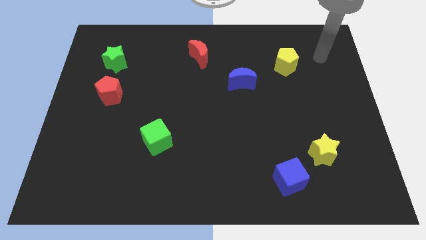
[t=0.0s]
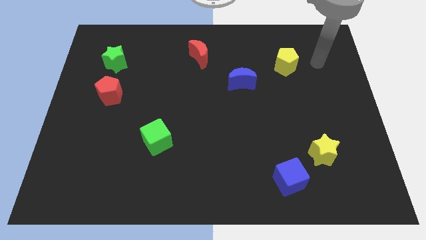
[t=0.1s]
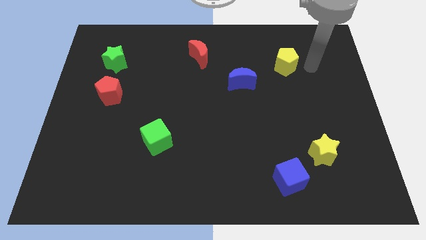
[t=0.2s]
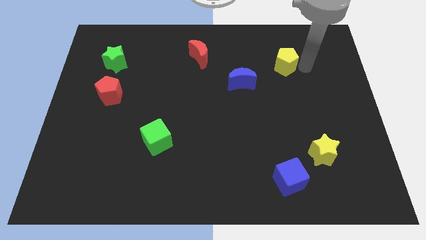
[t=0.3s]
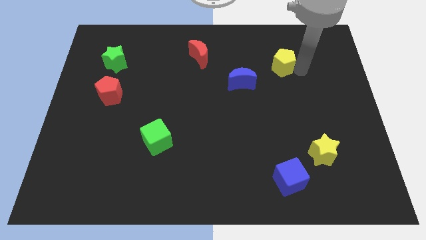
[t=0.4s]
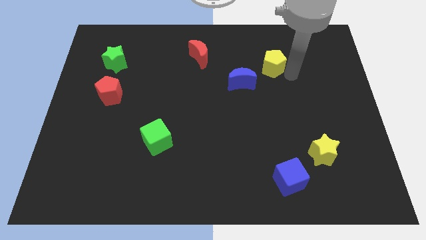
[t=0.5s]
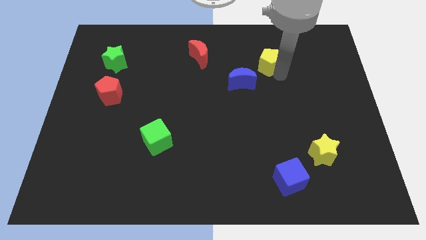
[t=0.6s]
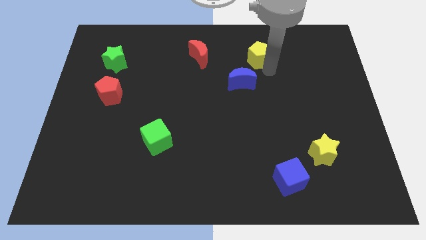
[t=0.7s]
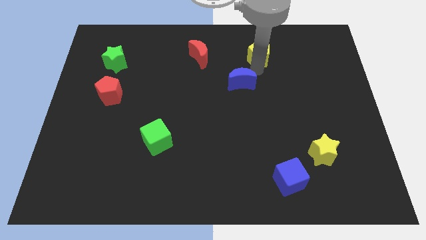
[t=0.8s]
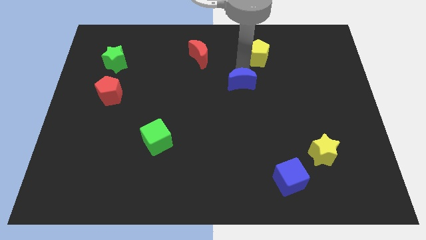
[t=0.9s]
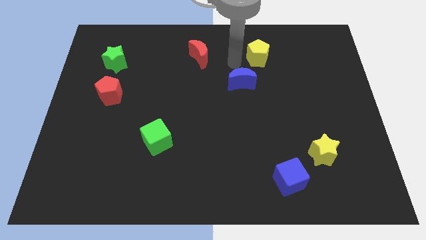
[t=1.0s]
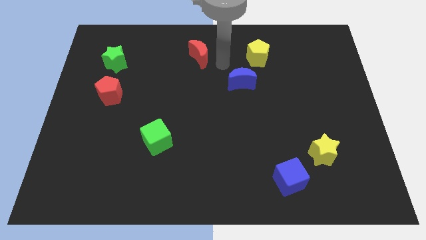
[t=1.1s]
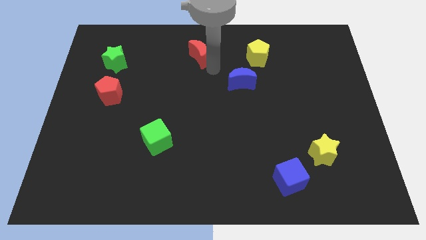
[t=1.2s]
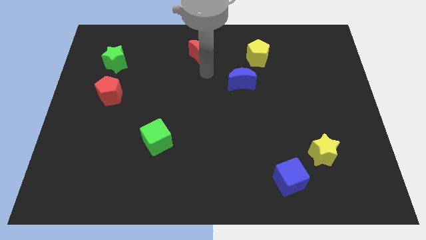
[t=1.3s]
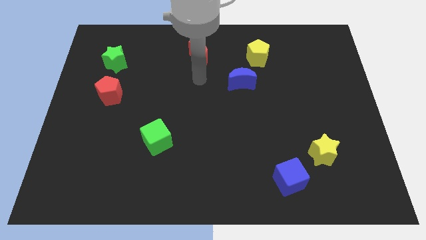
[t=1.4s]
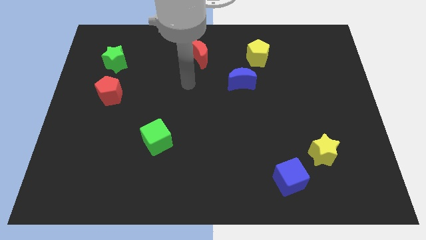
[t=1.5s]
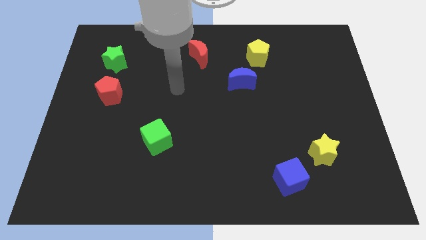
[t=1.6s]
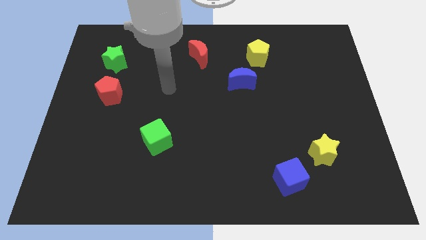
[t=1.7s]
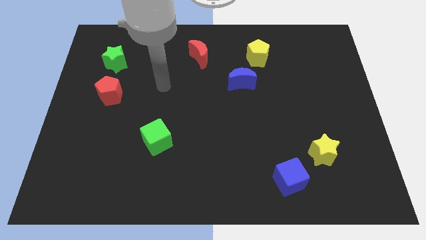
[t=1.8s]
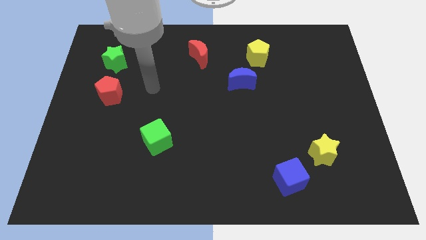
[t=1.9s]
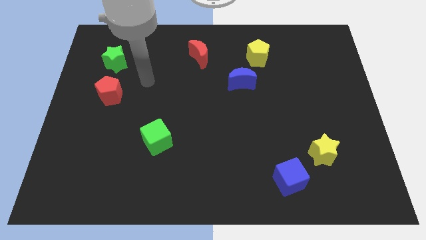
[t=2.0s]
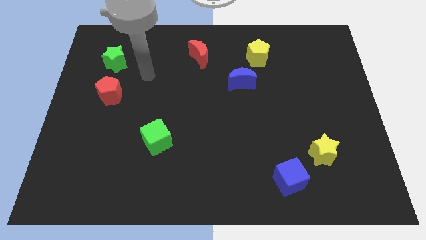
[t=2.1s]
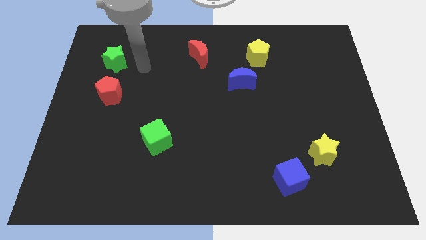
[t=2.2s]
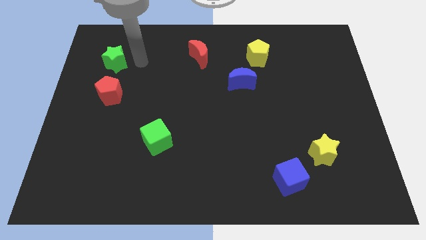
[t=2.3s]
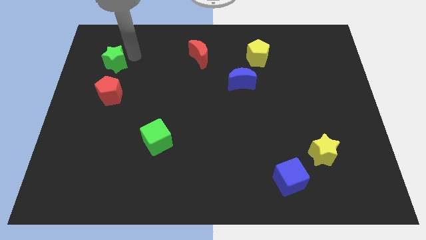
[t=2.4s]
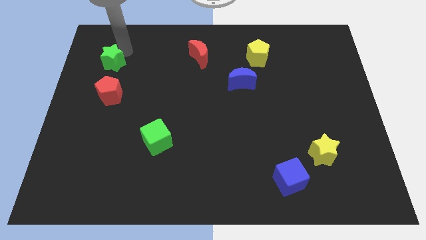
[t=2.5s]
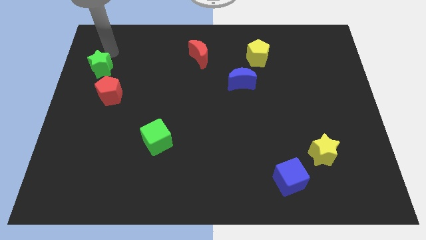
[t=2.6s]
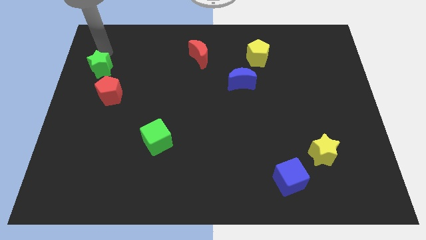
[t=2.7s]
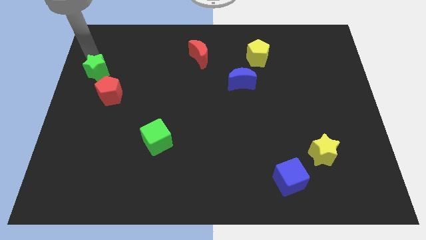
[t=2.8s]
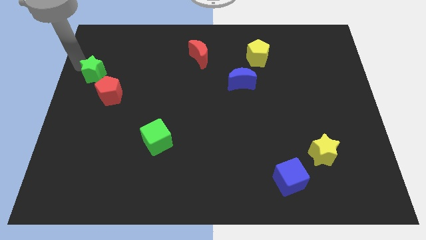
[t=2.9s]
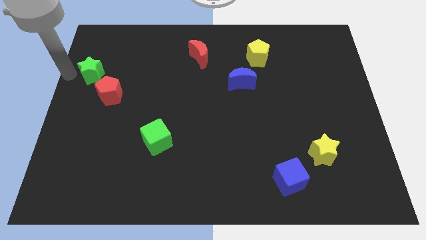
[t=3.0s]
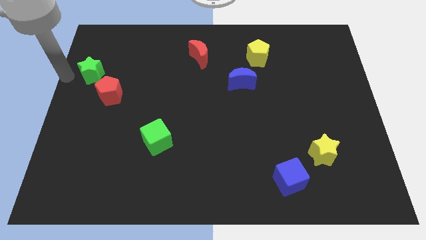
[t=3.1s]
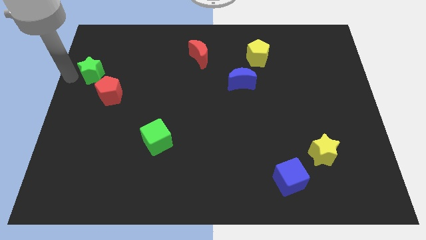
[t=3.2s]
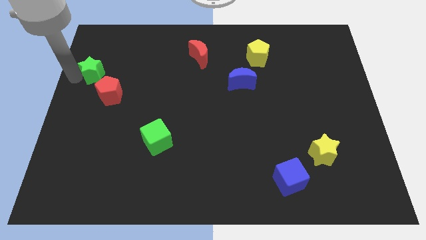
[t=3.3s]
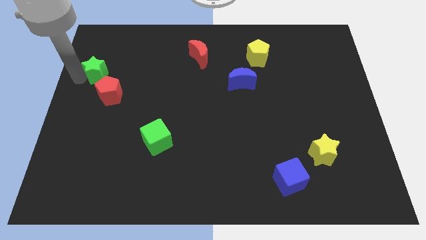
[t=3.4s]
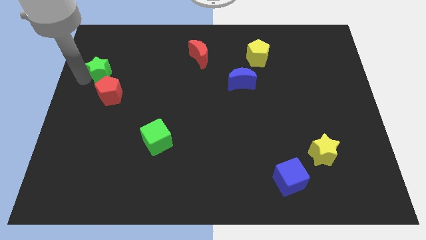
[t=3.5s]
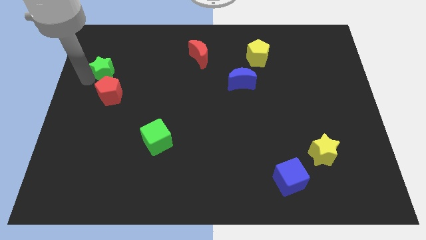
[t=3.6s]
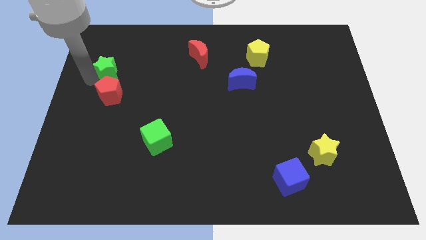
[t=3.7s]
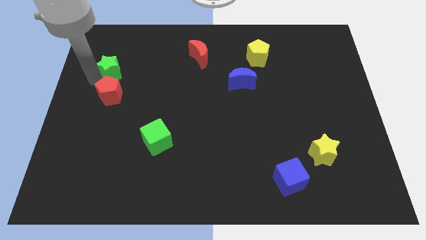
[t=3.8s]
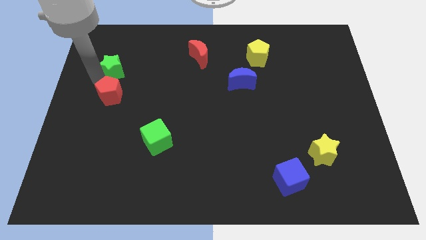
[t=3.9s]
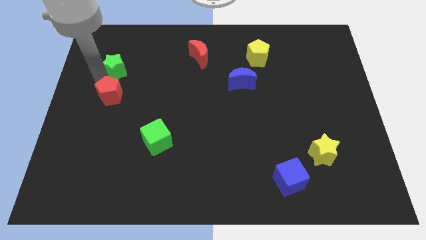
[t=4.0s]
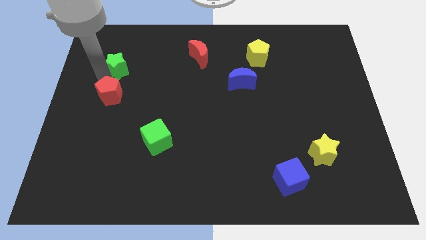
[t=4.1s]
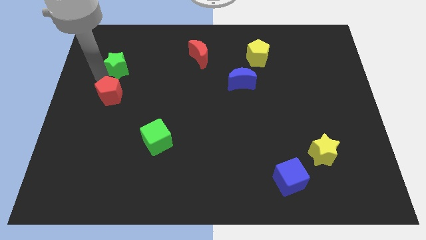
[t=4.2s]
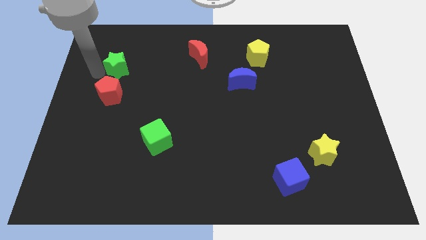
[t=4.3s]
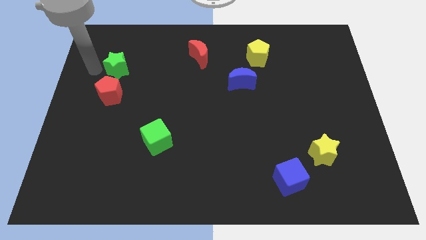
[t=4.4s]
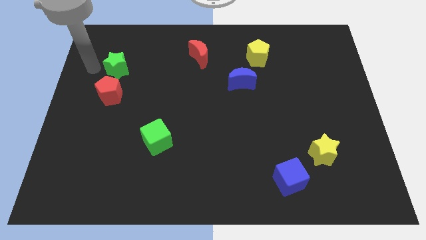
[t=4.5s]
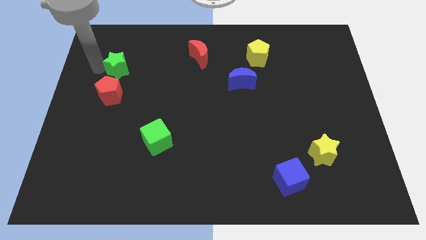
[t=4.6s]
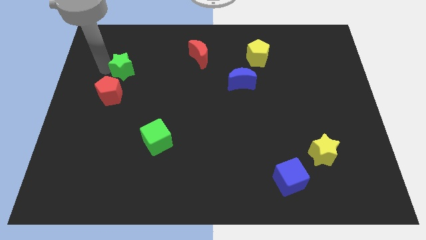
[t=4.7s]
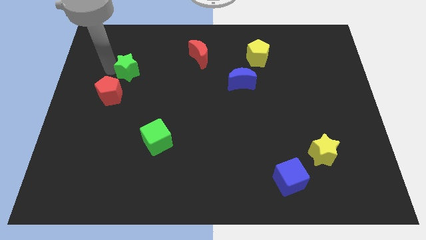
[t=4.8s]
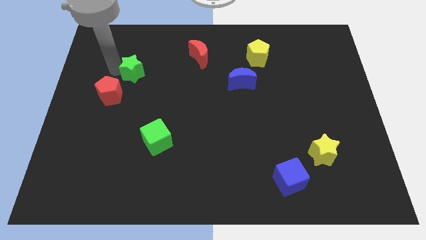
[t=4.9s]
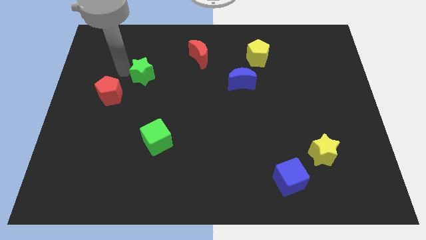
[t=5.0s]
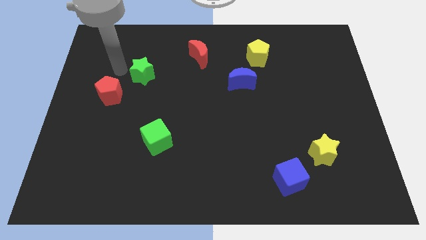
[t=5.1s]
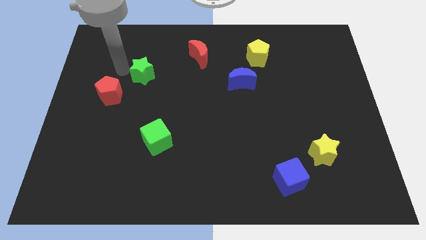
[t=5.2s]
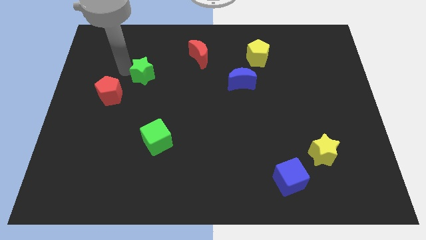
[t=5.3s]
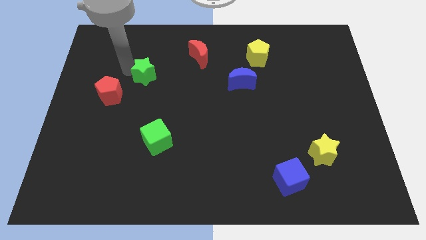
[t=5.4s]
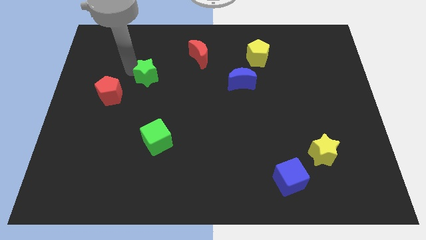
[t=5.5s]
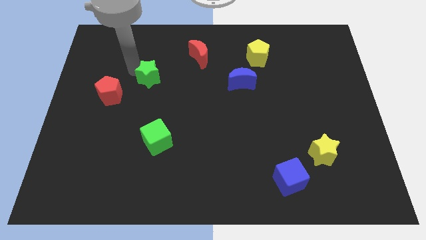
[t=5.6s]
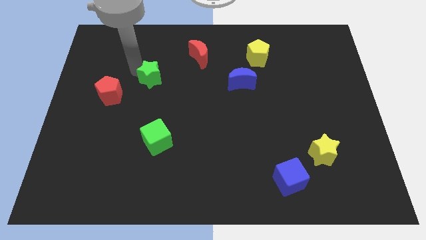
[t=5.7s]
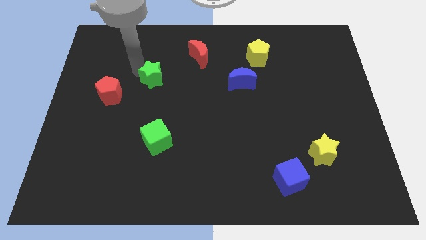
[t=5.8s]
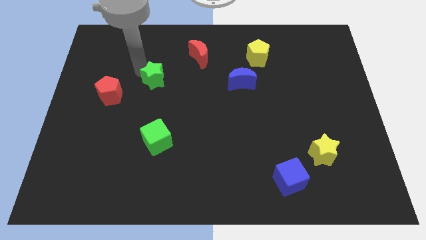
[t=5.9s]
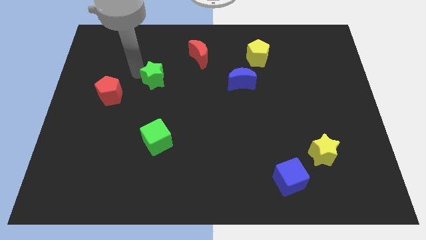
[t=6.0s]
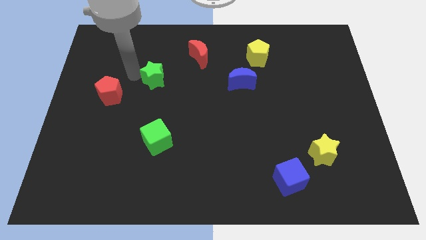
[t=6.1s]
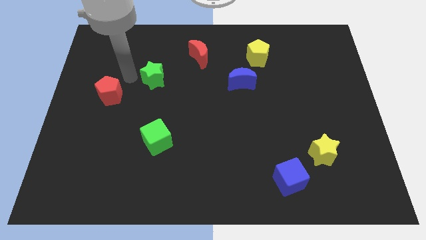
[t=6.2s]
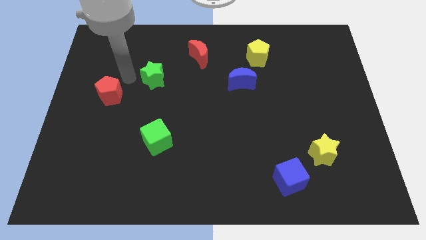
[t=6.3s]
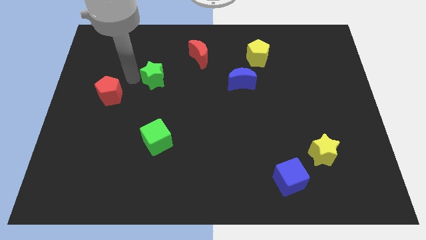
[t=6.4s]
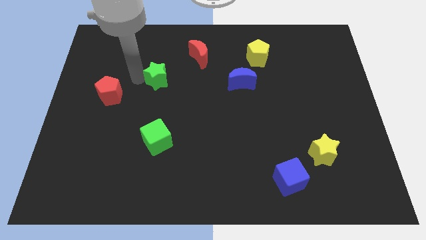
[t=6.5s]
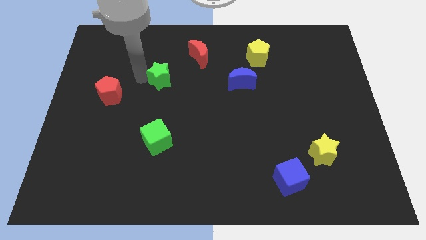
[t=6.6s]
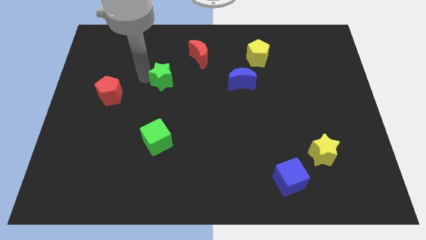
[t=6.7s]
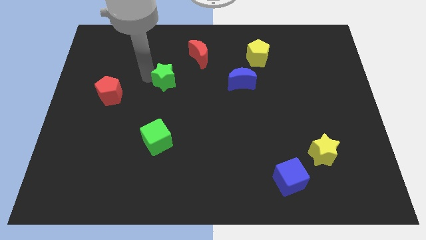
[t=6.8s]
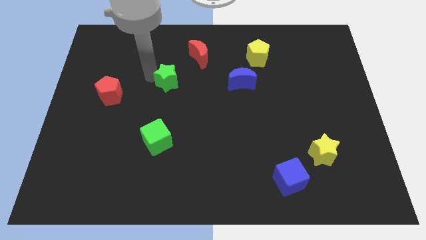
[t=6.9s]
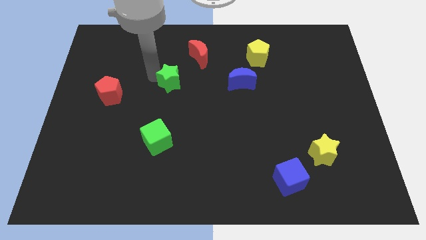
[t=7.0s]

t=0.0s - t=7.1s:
put the green star to the middle
